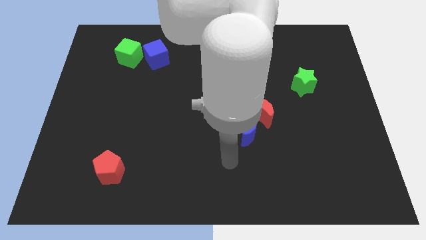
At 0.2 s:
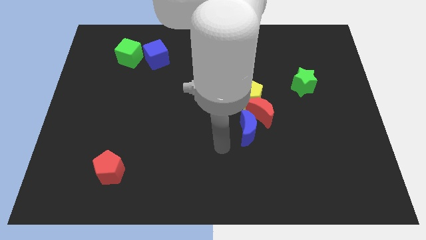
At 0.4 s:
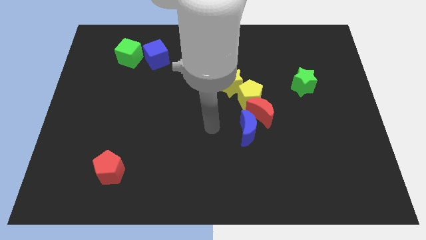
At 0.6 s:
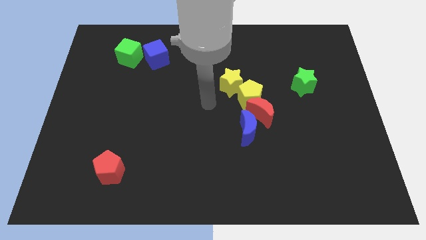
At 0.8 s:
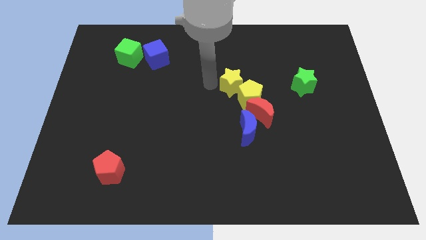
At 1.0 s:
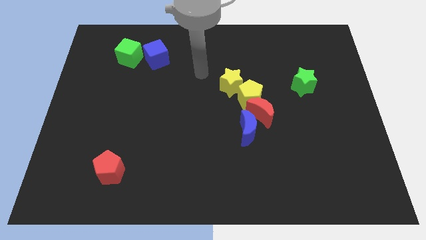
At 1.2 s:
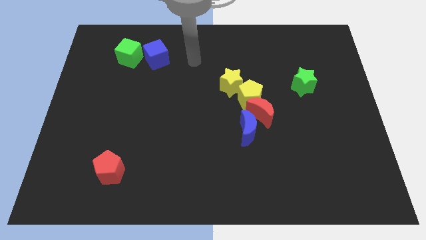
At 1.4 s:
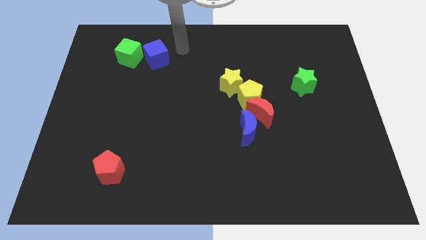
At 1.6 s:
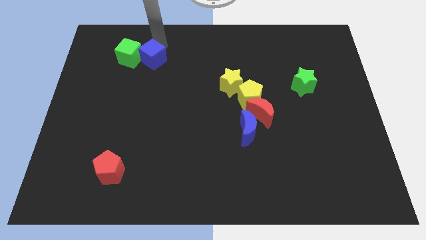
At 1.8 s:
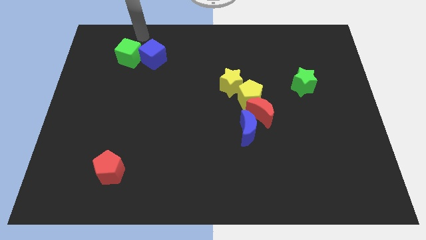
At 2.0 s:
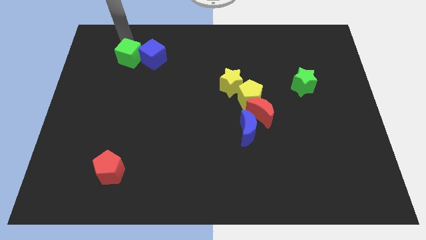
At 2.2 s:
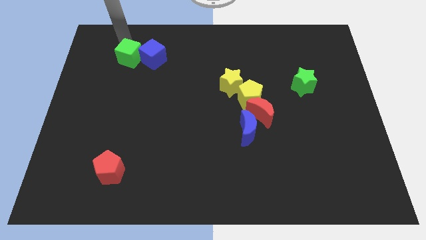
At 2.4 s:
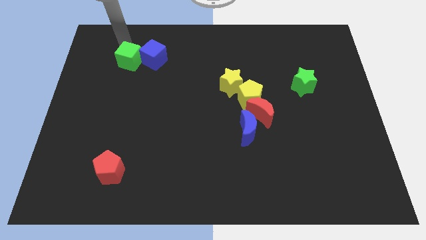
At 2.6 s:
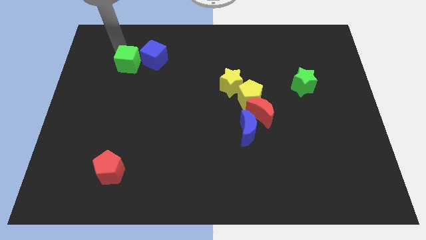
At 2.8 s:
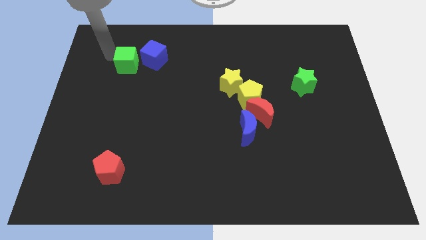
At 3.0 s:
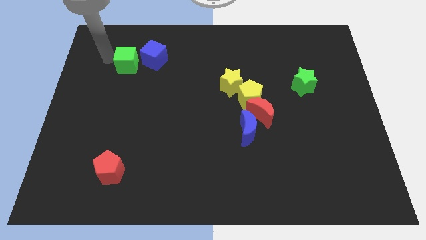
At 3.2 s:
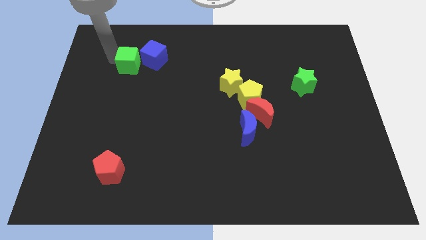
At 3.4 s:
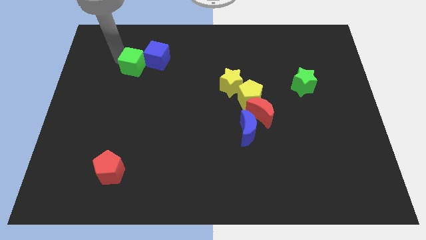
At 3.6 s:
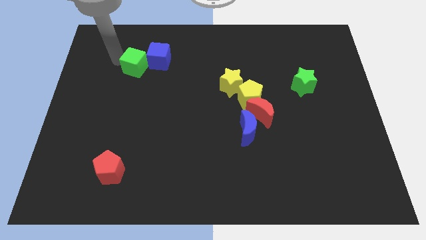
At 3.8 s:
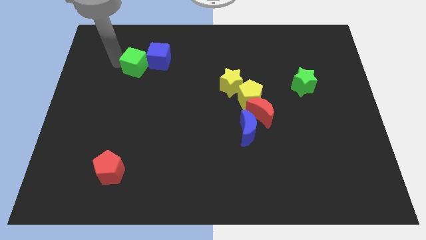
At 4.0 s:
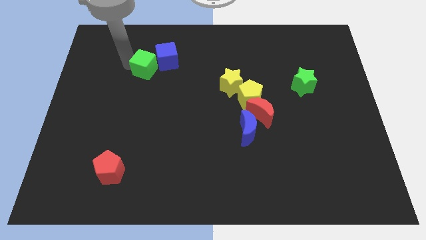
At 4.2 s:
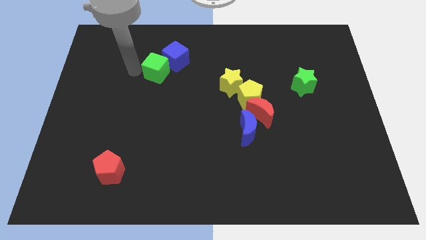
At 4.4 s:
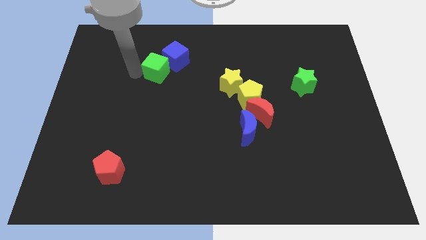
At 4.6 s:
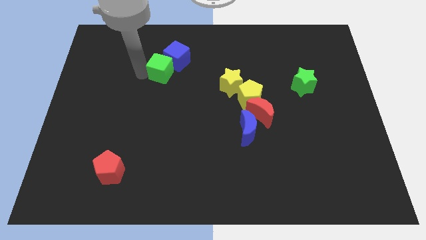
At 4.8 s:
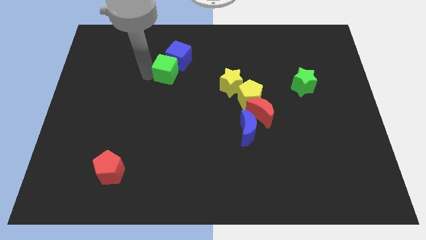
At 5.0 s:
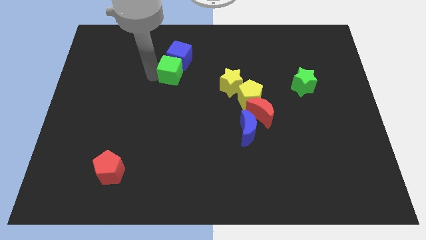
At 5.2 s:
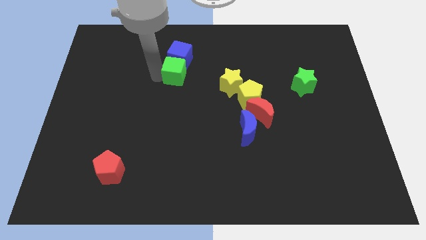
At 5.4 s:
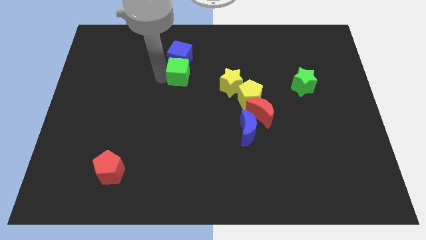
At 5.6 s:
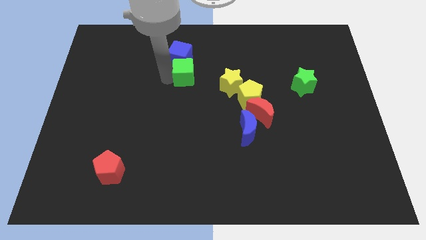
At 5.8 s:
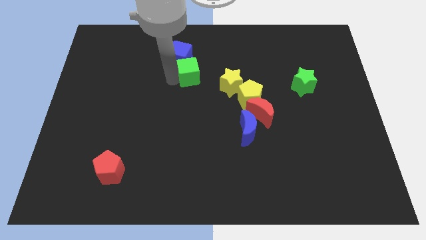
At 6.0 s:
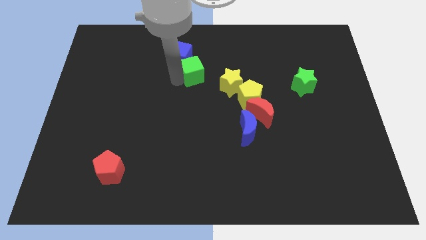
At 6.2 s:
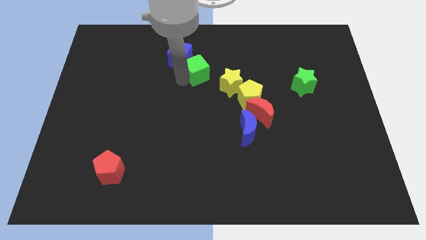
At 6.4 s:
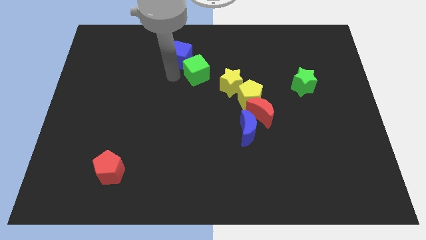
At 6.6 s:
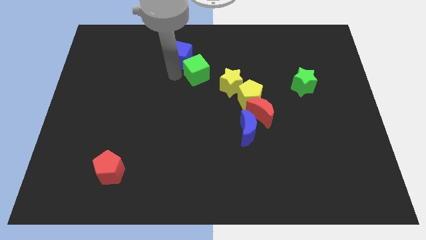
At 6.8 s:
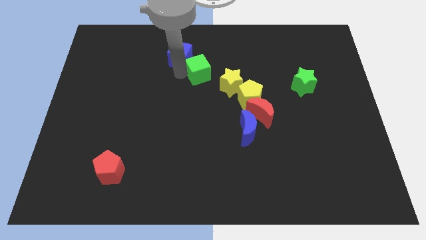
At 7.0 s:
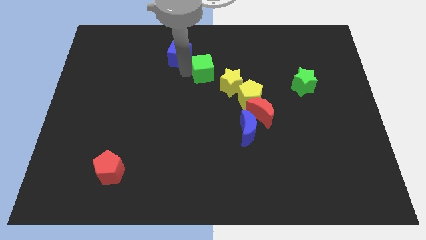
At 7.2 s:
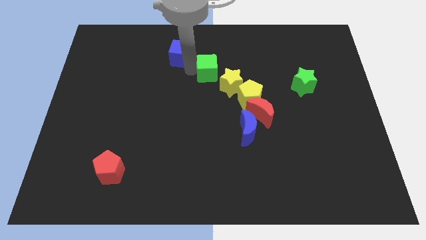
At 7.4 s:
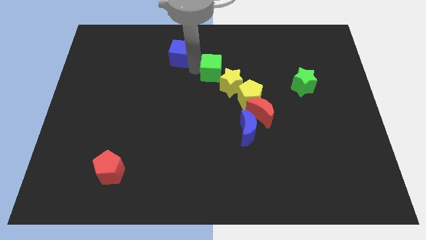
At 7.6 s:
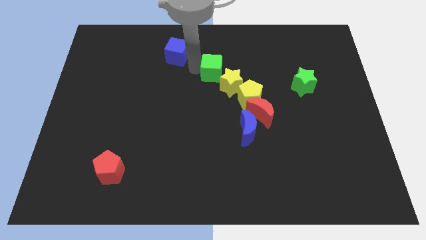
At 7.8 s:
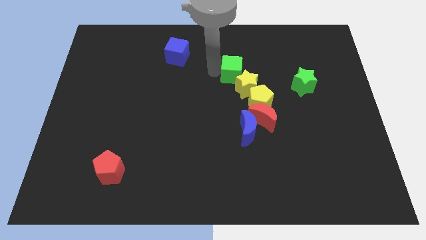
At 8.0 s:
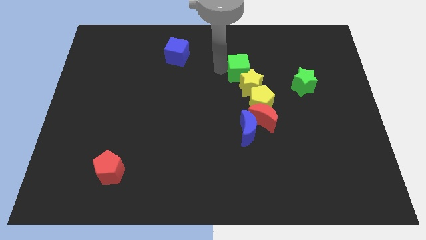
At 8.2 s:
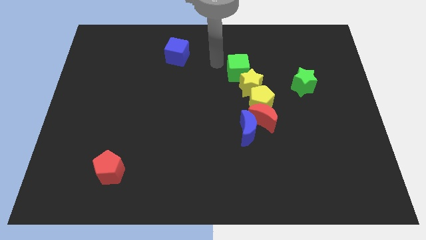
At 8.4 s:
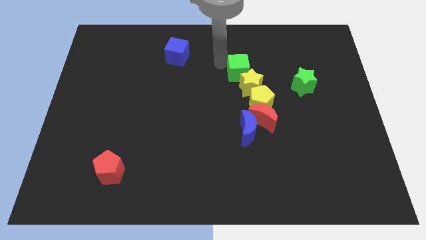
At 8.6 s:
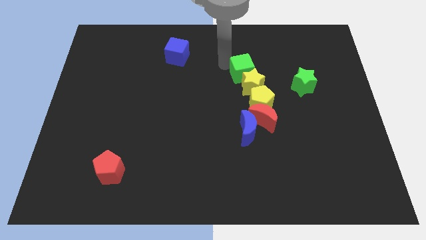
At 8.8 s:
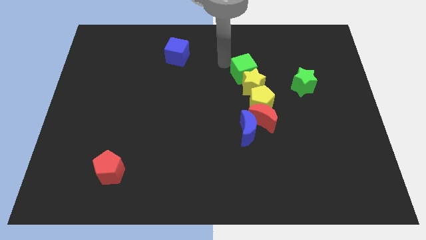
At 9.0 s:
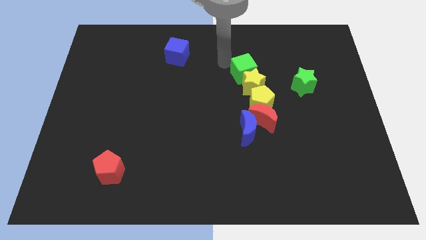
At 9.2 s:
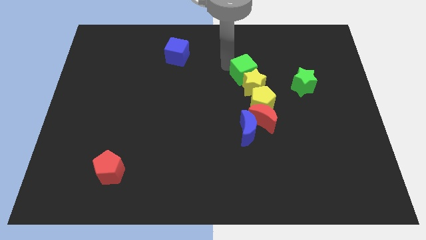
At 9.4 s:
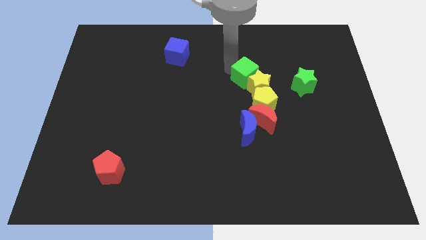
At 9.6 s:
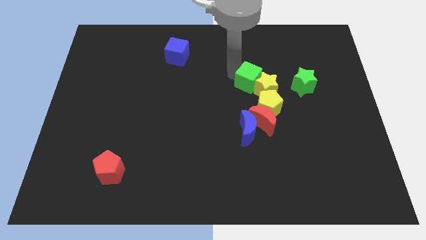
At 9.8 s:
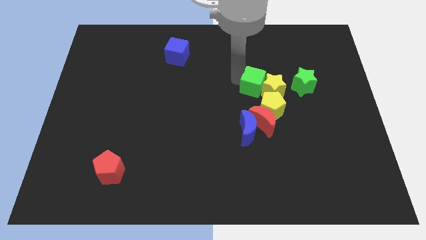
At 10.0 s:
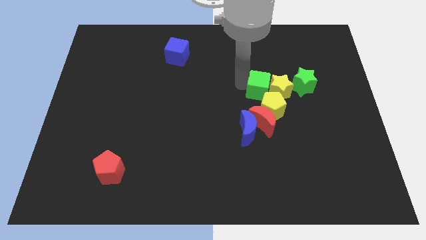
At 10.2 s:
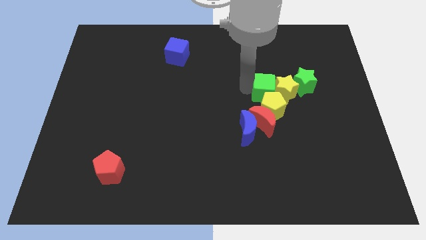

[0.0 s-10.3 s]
move the green cube to the top right of the yellow pentagon

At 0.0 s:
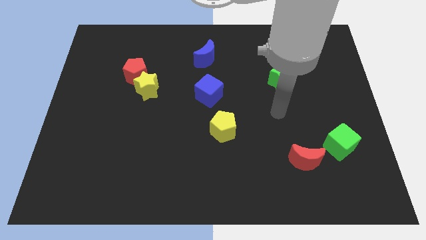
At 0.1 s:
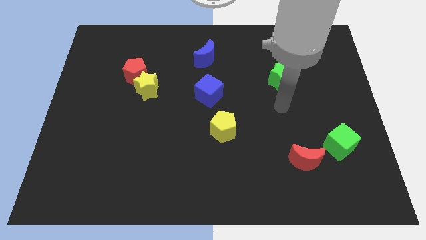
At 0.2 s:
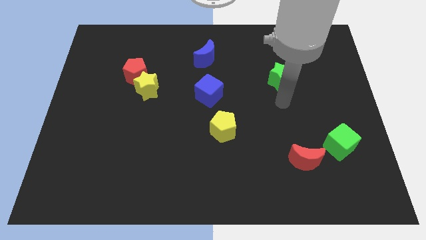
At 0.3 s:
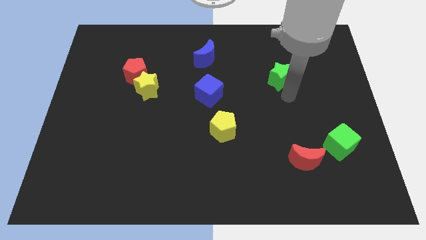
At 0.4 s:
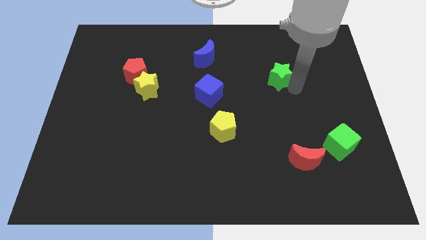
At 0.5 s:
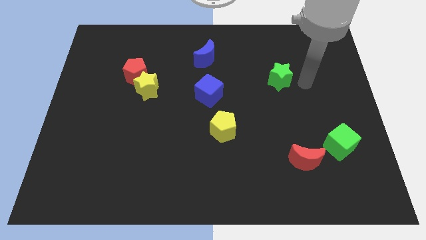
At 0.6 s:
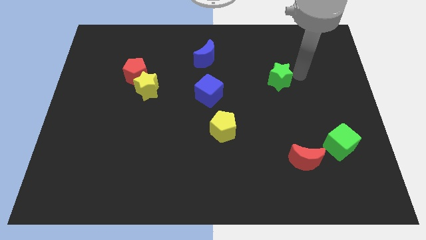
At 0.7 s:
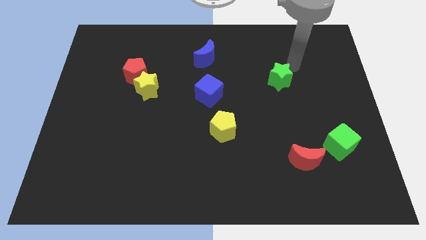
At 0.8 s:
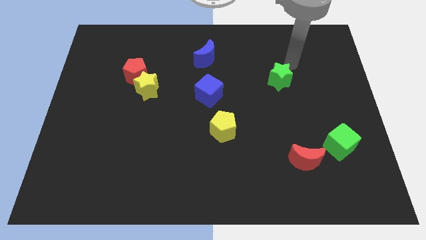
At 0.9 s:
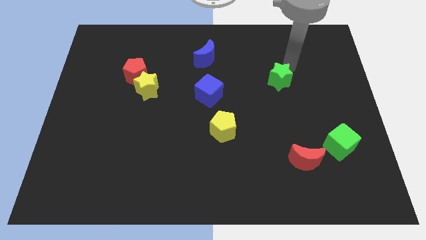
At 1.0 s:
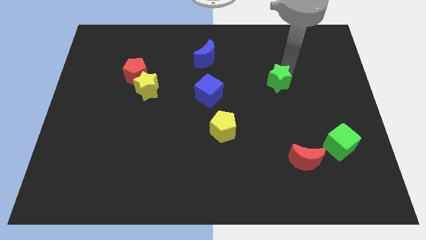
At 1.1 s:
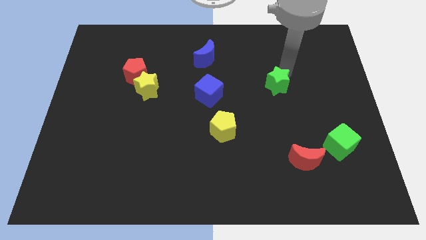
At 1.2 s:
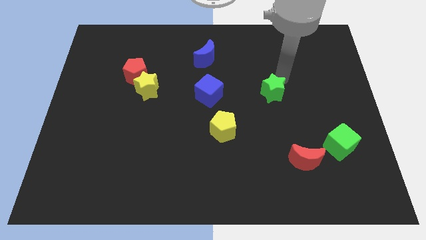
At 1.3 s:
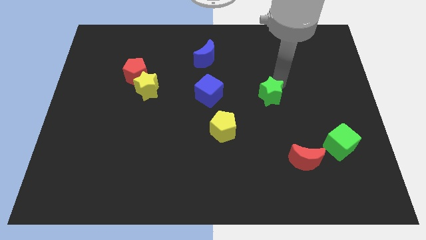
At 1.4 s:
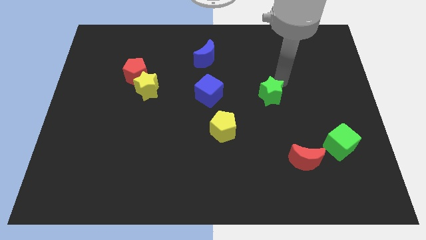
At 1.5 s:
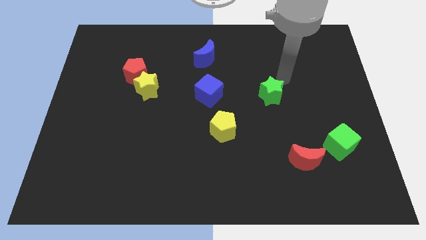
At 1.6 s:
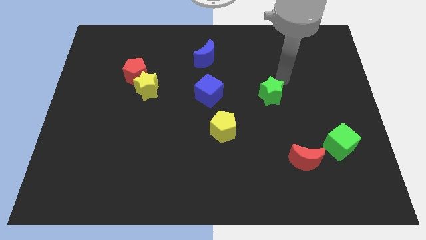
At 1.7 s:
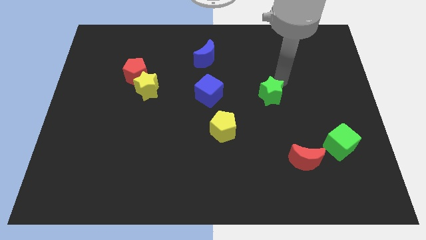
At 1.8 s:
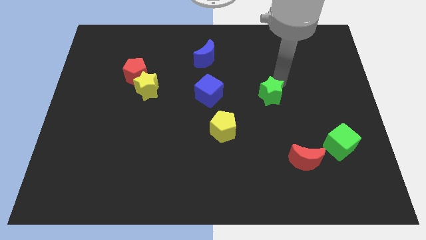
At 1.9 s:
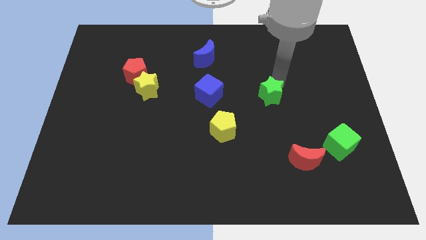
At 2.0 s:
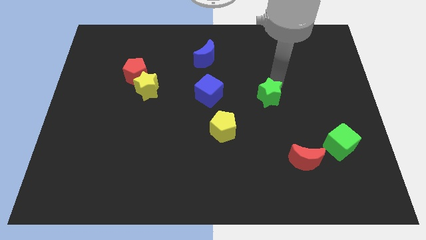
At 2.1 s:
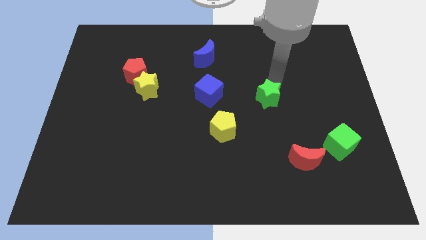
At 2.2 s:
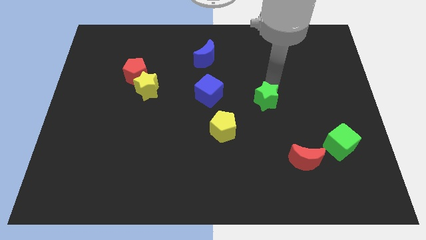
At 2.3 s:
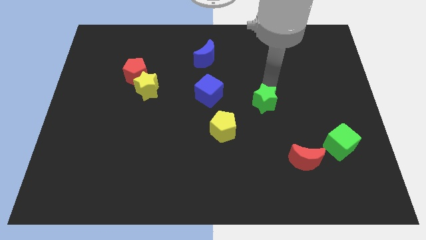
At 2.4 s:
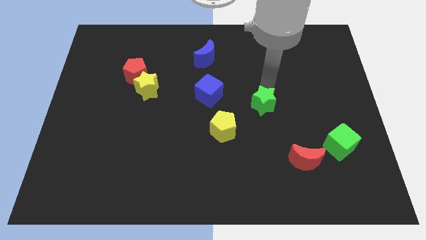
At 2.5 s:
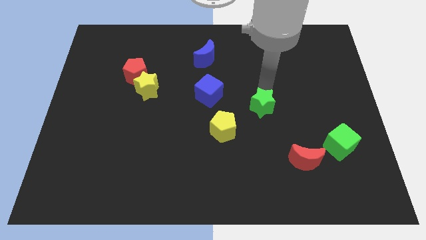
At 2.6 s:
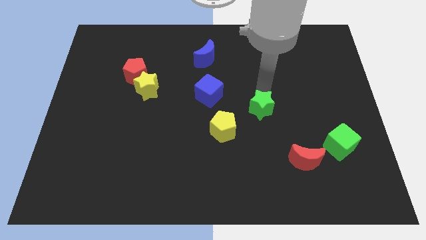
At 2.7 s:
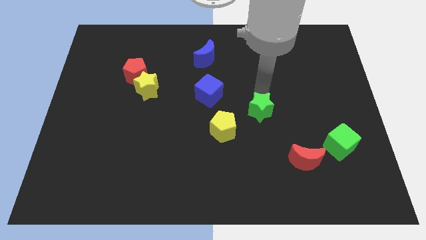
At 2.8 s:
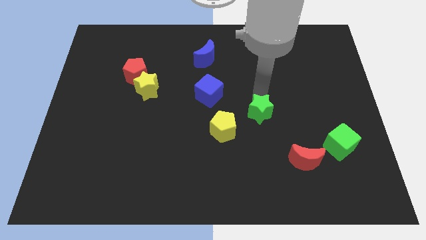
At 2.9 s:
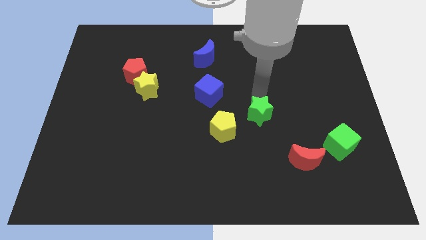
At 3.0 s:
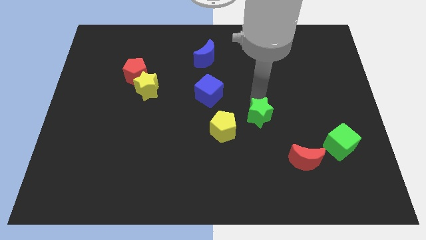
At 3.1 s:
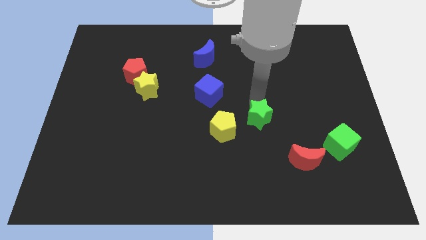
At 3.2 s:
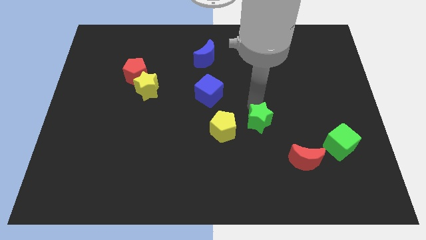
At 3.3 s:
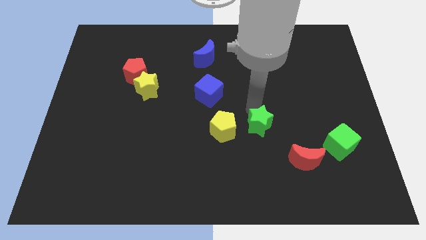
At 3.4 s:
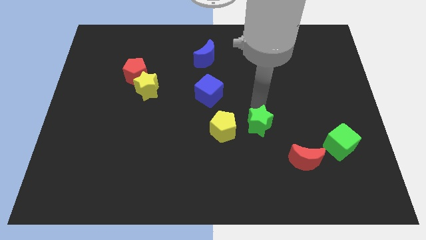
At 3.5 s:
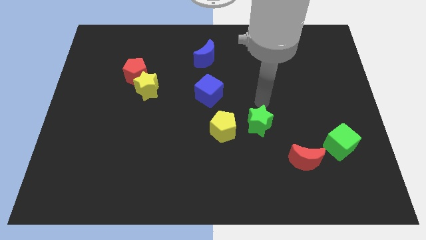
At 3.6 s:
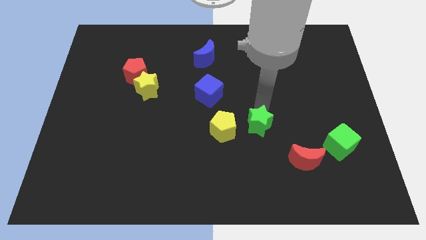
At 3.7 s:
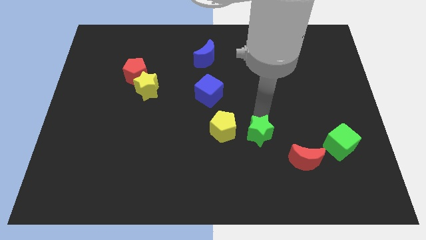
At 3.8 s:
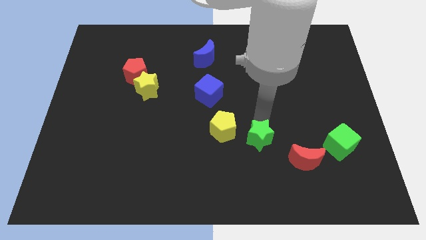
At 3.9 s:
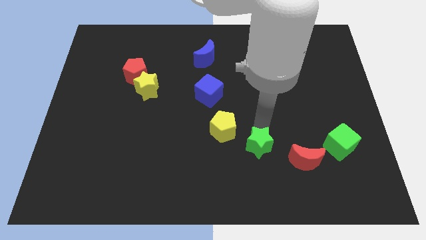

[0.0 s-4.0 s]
put the green star just left of the red moon
